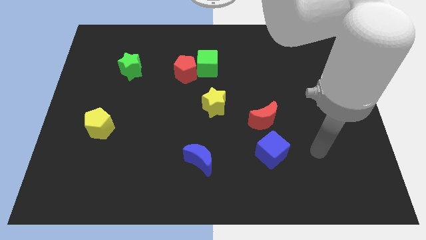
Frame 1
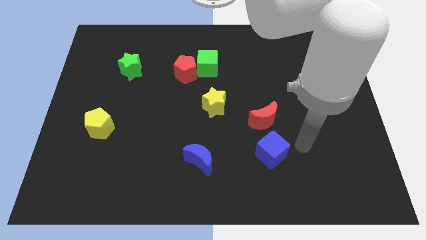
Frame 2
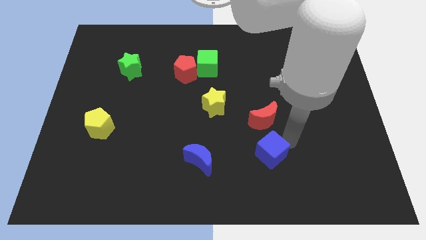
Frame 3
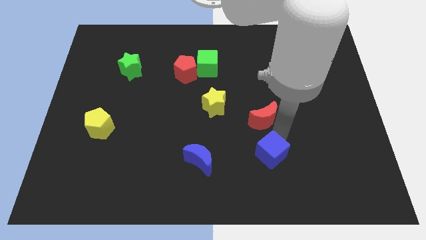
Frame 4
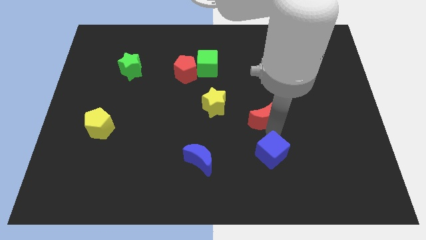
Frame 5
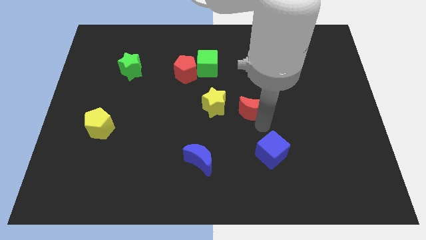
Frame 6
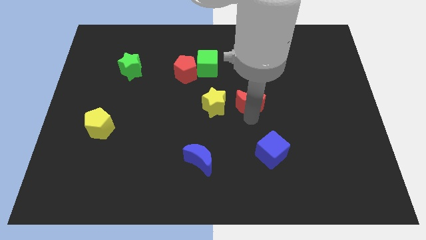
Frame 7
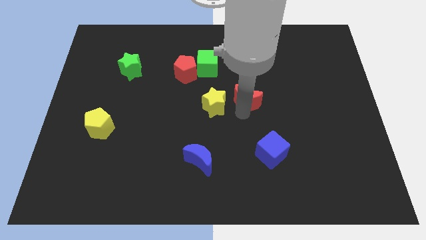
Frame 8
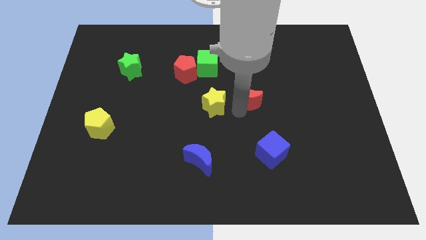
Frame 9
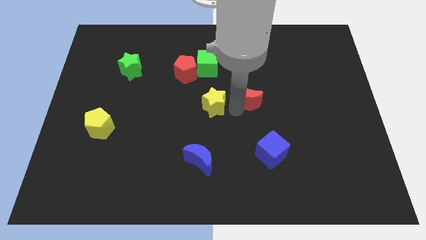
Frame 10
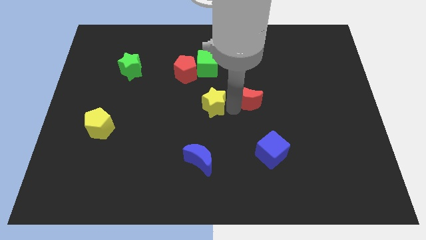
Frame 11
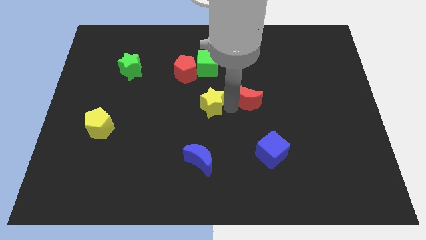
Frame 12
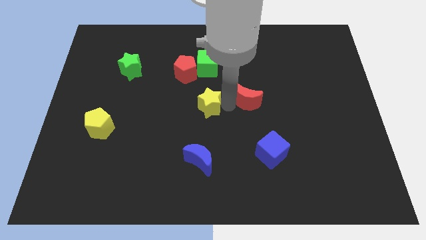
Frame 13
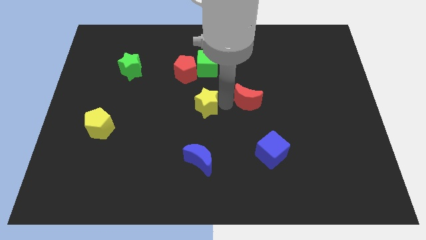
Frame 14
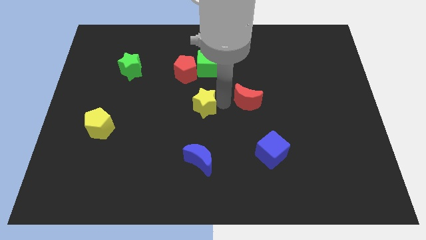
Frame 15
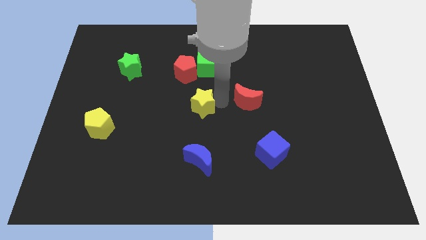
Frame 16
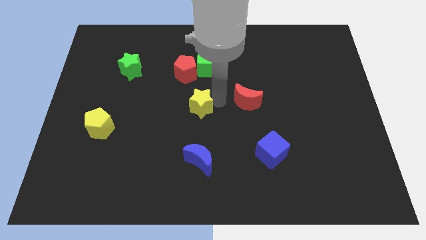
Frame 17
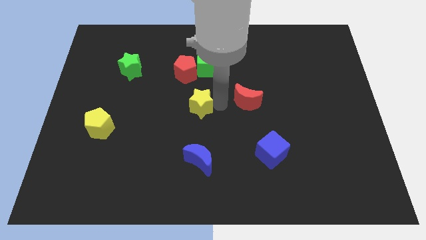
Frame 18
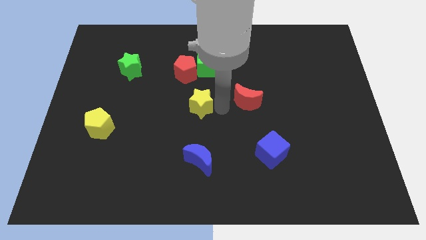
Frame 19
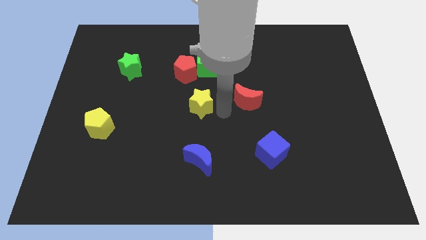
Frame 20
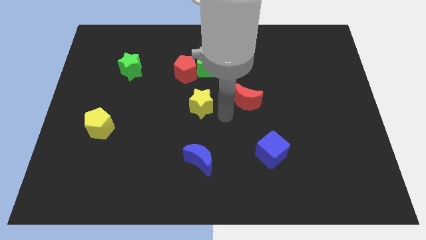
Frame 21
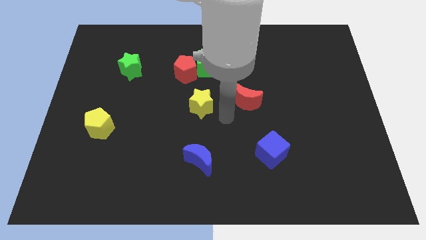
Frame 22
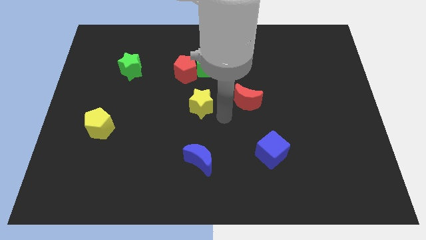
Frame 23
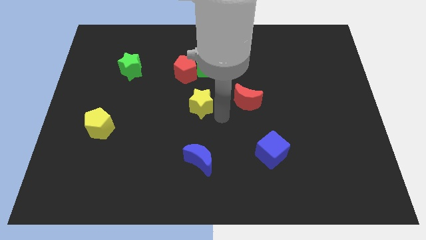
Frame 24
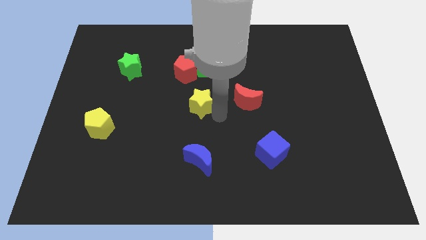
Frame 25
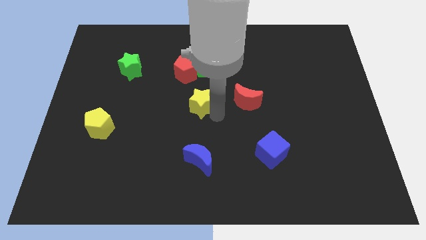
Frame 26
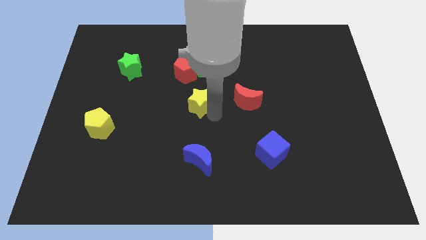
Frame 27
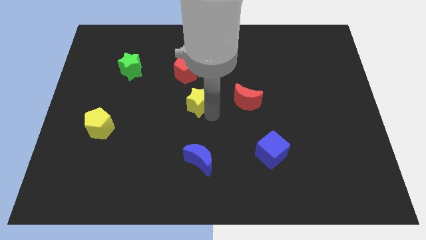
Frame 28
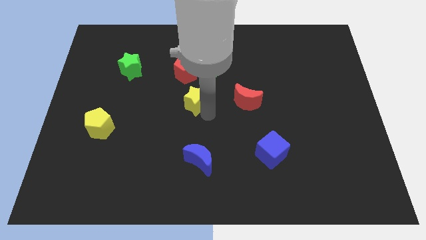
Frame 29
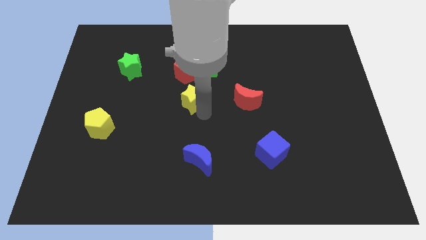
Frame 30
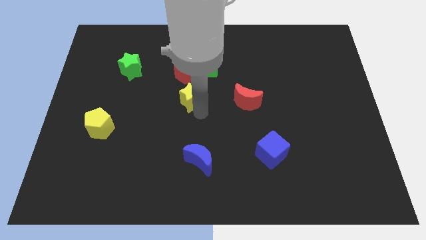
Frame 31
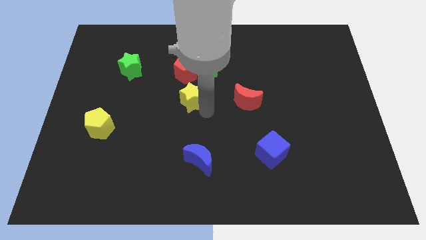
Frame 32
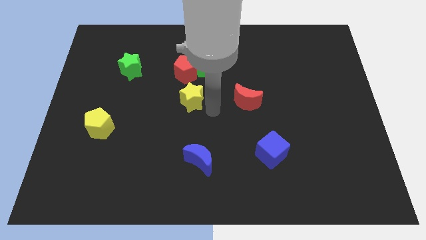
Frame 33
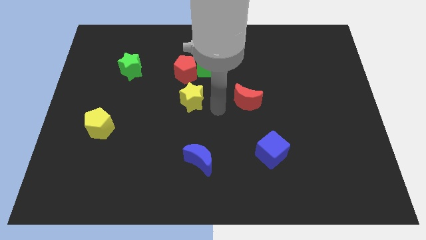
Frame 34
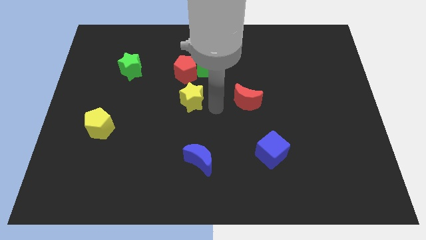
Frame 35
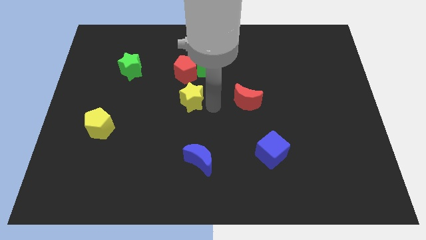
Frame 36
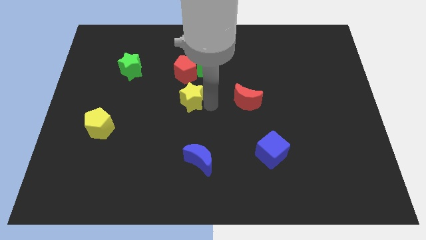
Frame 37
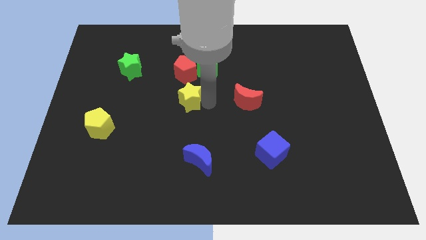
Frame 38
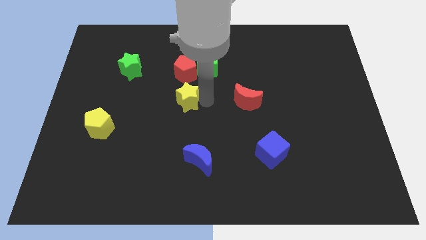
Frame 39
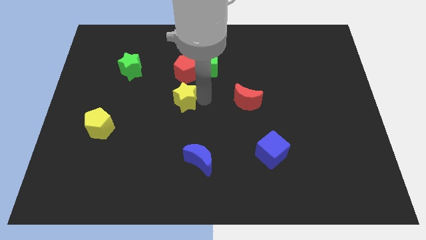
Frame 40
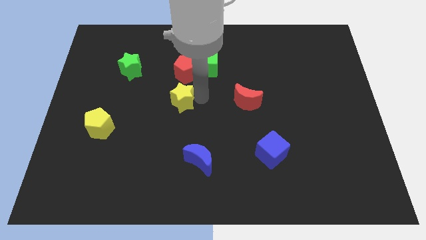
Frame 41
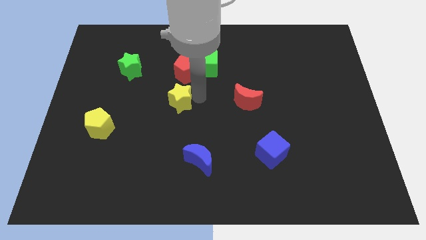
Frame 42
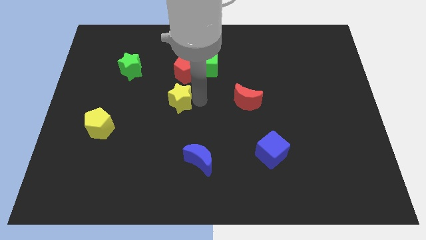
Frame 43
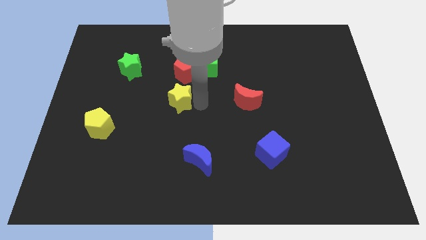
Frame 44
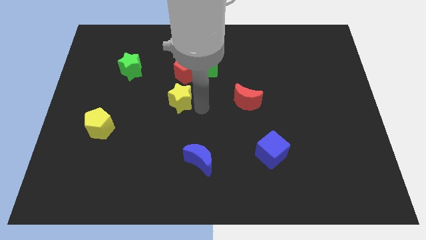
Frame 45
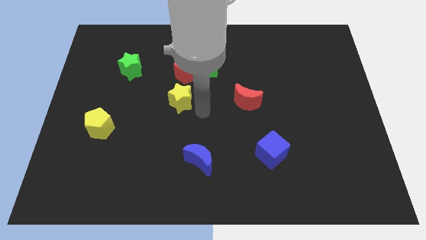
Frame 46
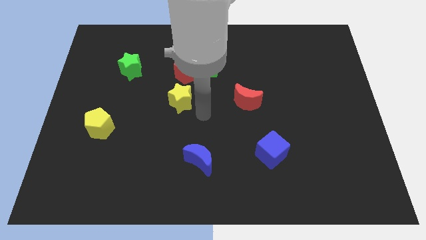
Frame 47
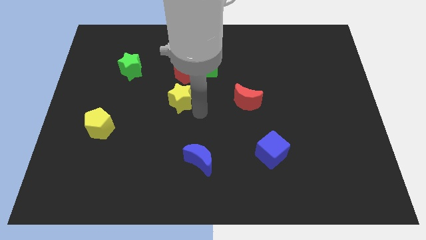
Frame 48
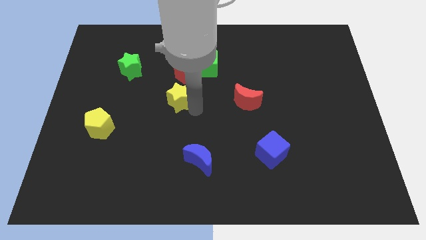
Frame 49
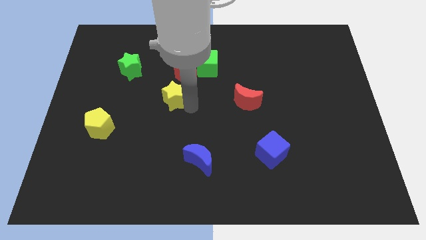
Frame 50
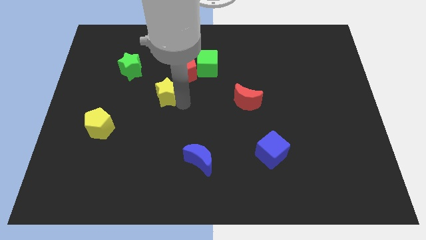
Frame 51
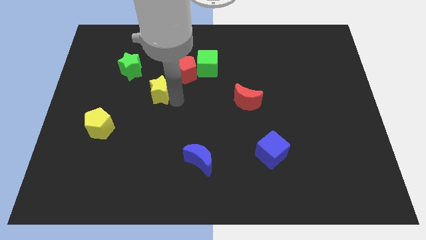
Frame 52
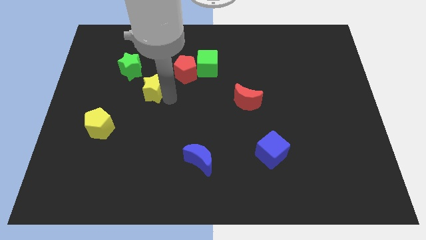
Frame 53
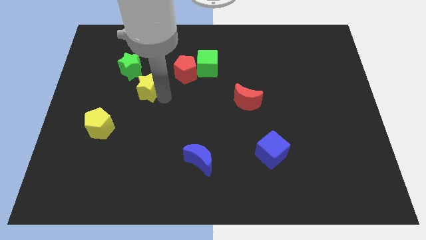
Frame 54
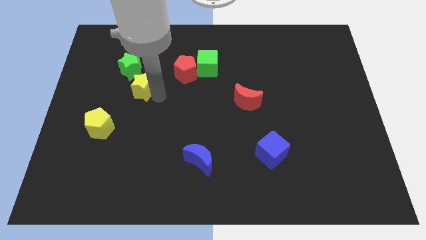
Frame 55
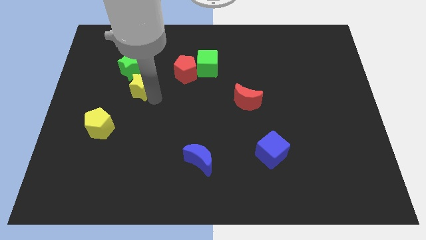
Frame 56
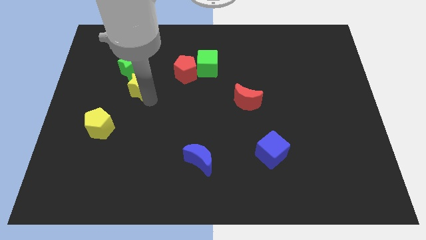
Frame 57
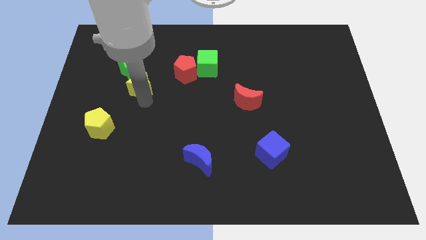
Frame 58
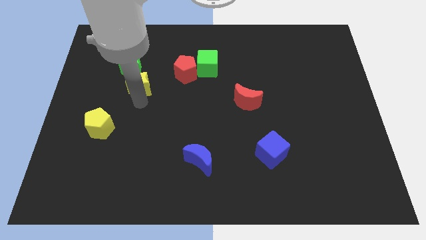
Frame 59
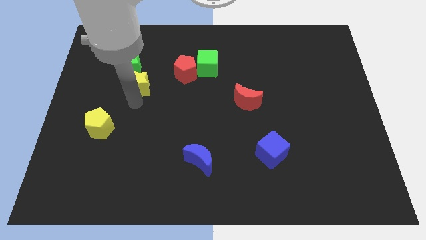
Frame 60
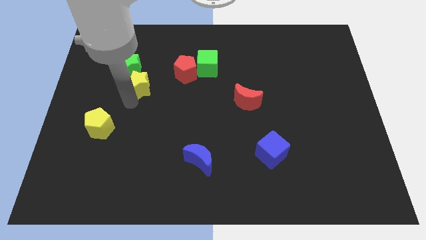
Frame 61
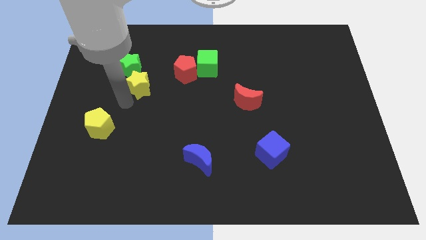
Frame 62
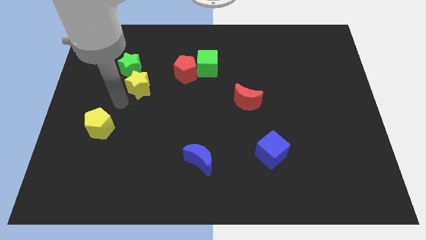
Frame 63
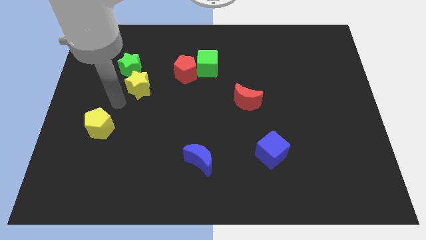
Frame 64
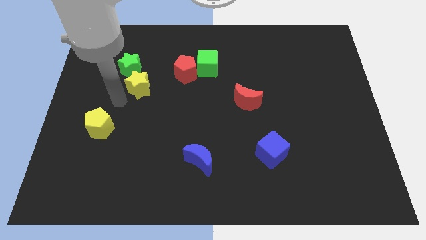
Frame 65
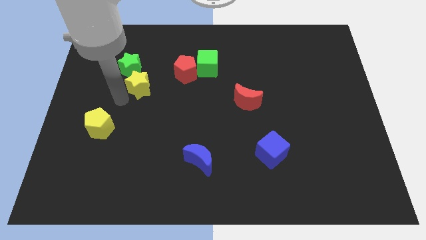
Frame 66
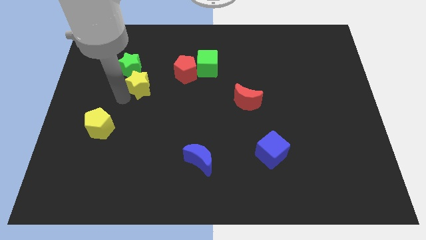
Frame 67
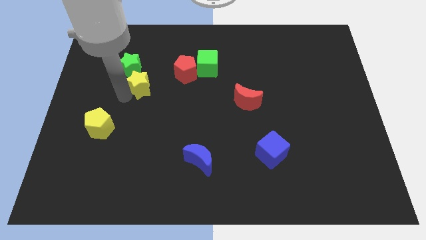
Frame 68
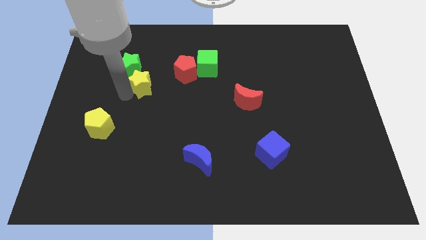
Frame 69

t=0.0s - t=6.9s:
slide the yellow star to the left side of the red pentagon
